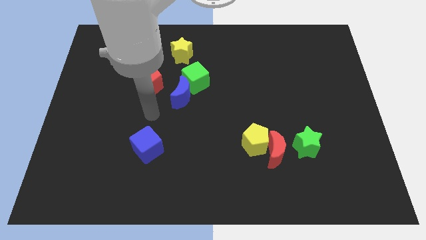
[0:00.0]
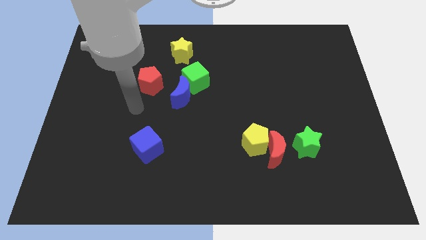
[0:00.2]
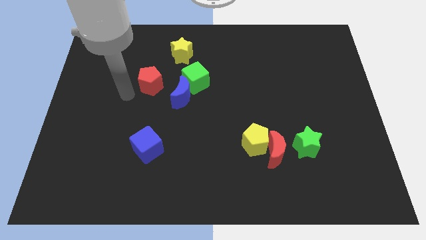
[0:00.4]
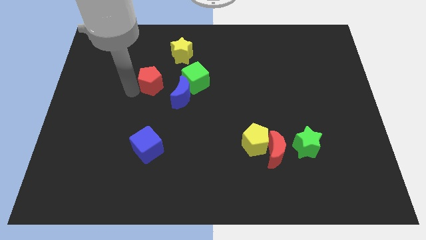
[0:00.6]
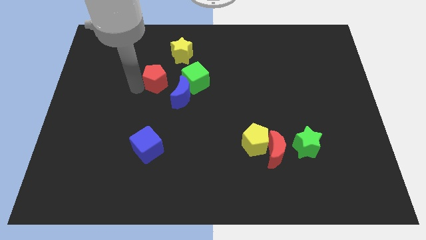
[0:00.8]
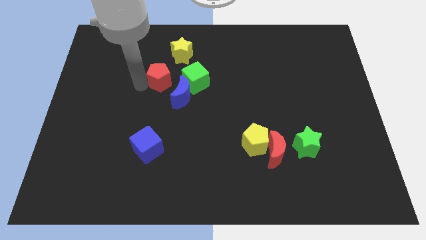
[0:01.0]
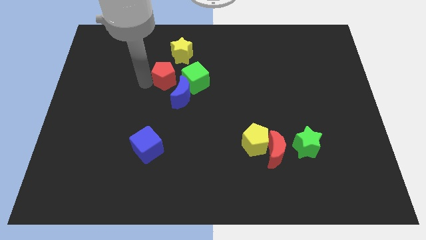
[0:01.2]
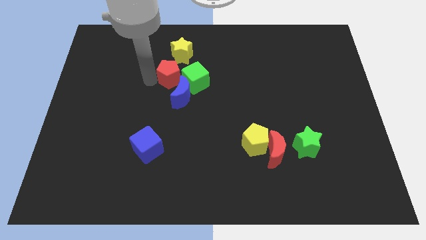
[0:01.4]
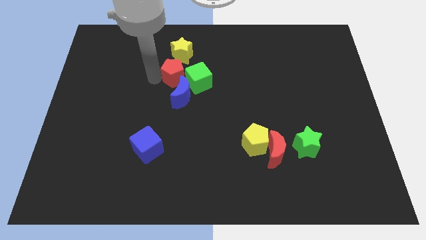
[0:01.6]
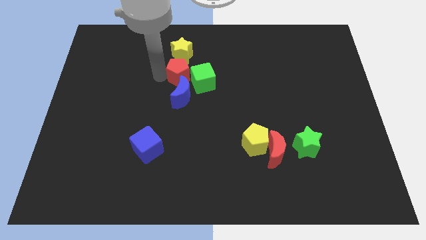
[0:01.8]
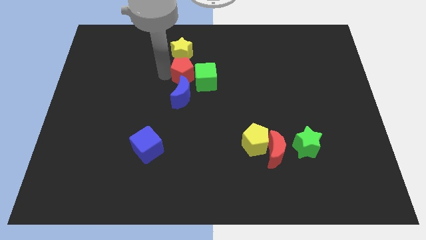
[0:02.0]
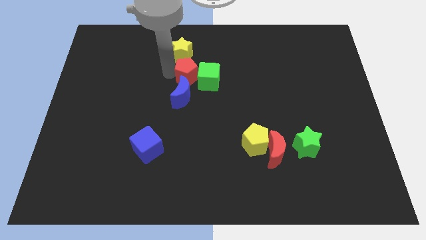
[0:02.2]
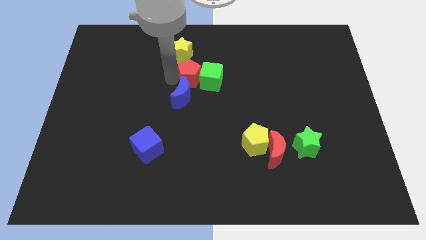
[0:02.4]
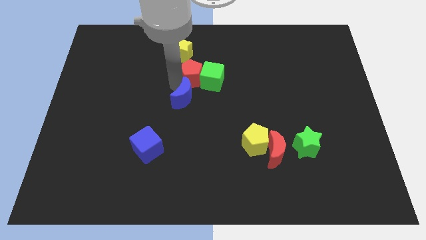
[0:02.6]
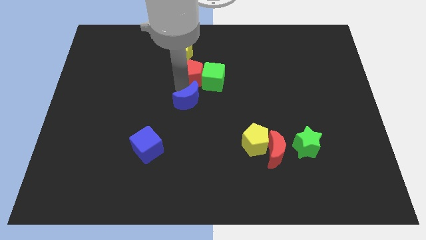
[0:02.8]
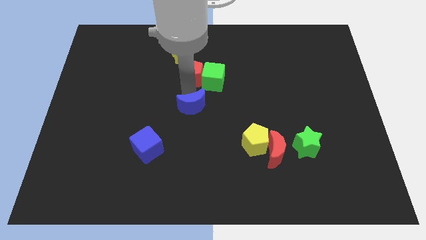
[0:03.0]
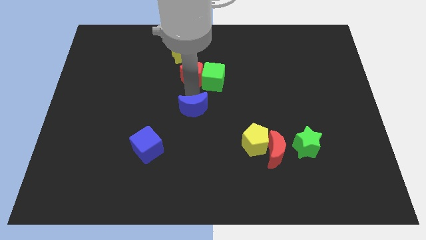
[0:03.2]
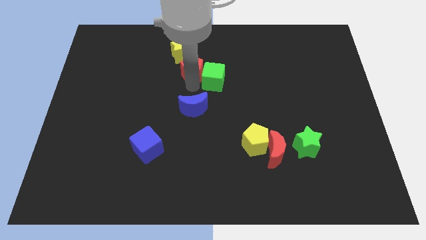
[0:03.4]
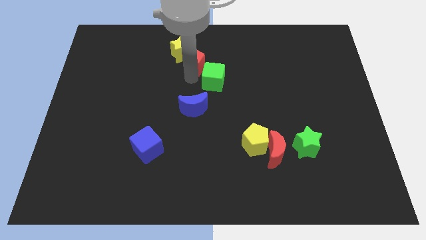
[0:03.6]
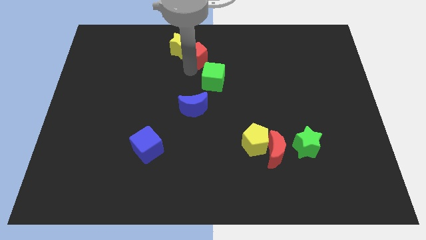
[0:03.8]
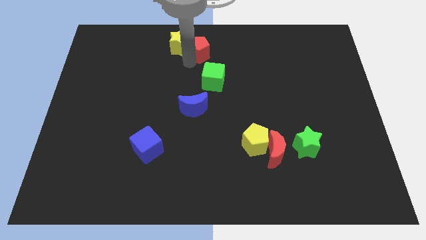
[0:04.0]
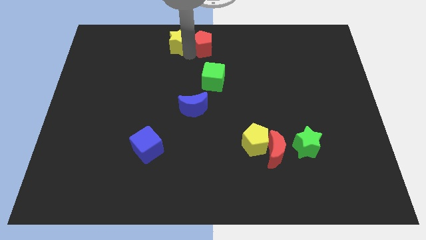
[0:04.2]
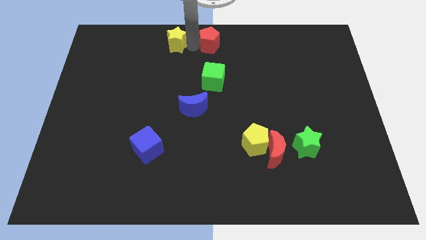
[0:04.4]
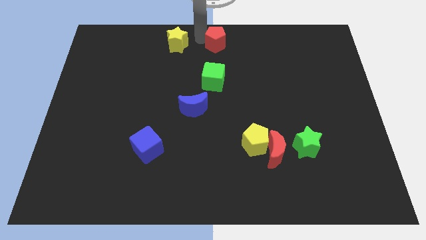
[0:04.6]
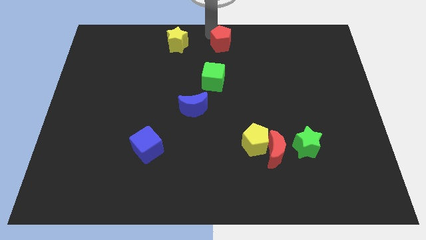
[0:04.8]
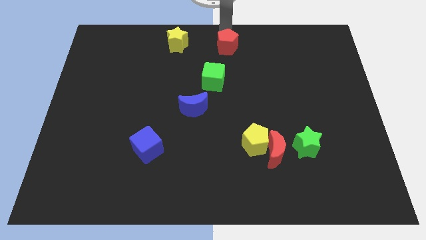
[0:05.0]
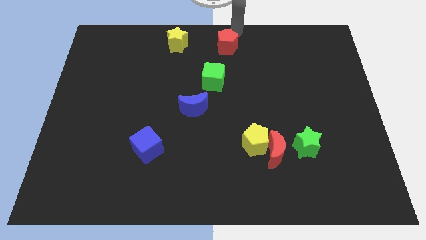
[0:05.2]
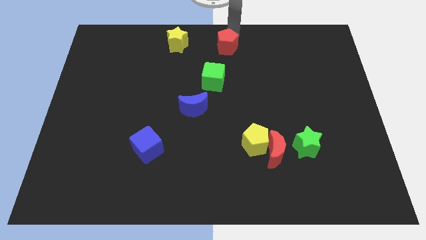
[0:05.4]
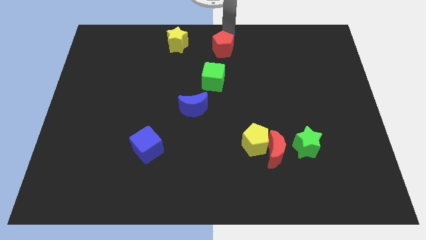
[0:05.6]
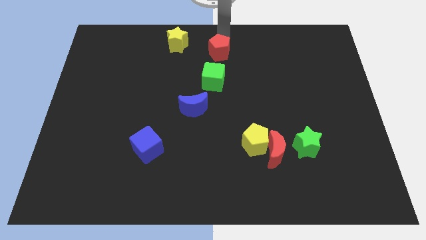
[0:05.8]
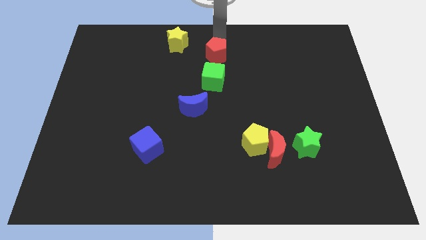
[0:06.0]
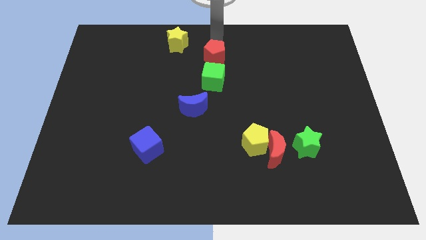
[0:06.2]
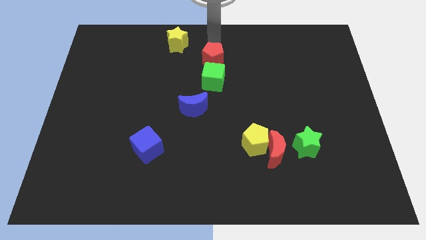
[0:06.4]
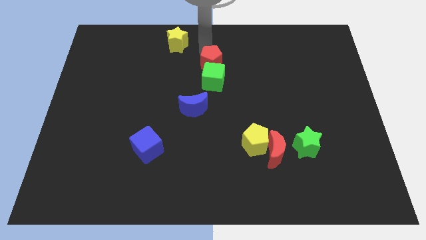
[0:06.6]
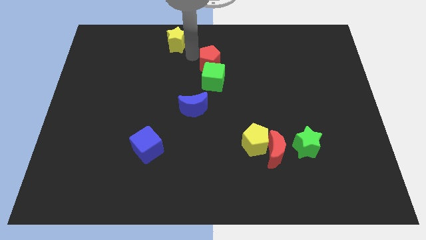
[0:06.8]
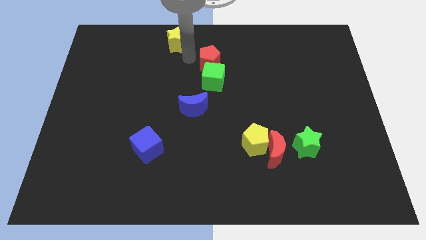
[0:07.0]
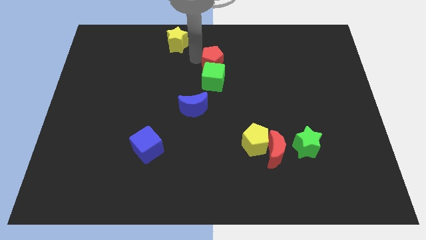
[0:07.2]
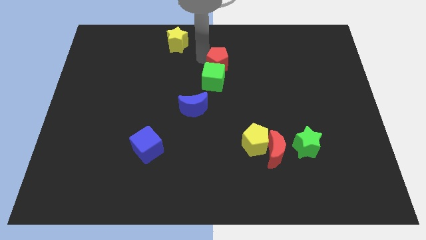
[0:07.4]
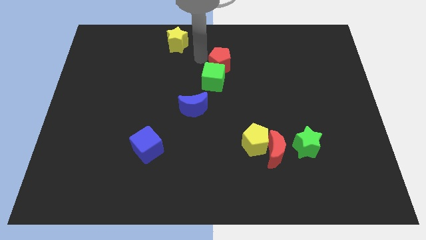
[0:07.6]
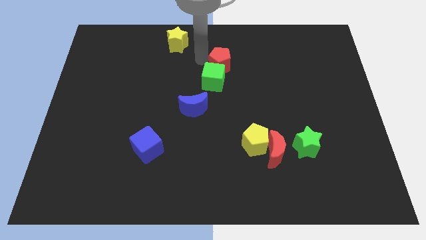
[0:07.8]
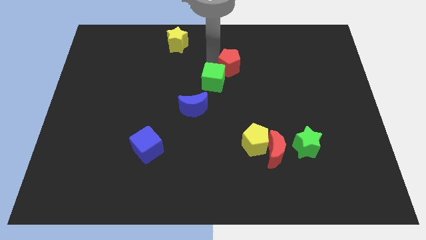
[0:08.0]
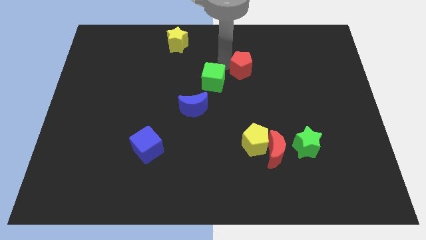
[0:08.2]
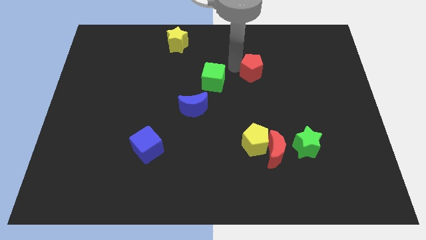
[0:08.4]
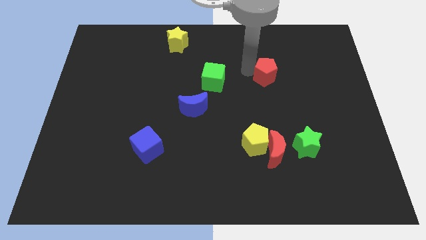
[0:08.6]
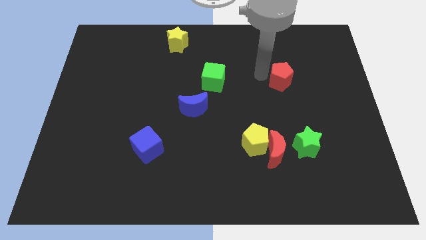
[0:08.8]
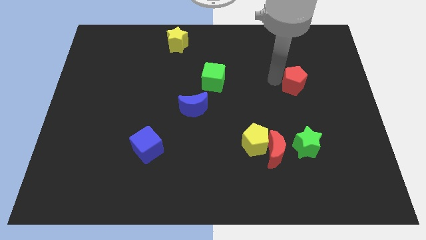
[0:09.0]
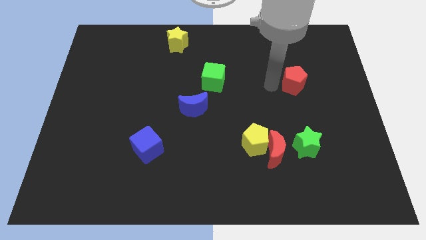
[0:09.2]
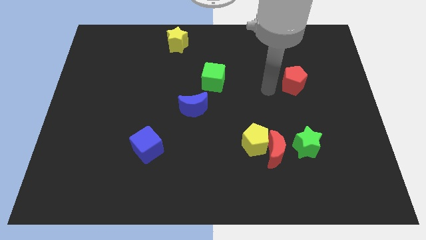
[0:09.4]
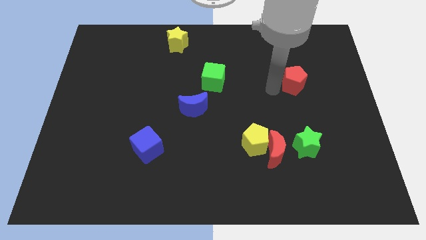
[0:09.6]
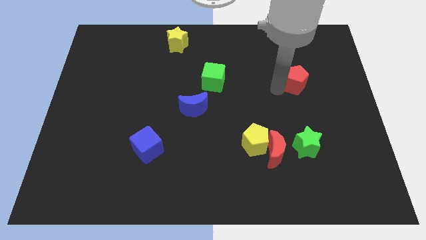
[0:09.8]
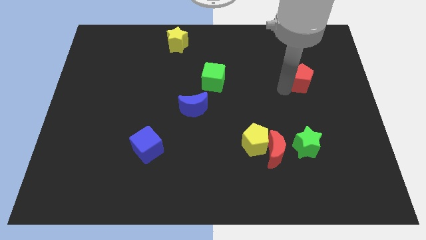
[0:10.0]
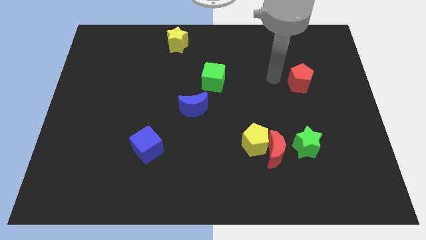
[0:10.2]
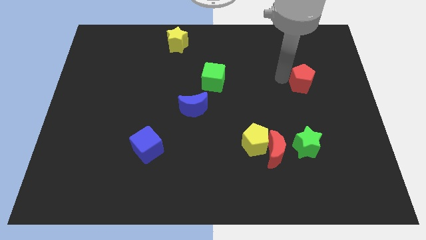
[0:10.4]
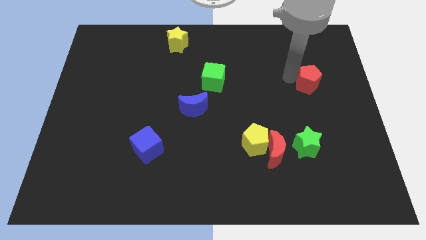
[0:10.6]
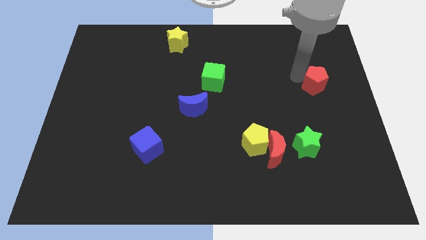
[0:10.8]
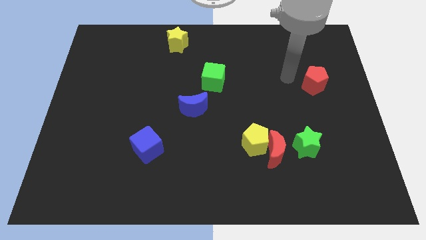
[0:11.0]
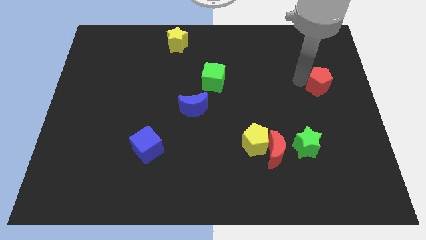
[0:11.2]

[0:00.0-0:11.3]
move the red pentagon to the right side of the board
